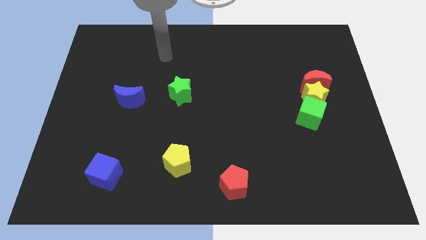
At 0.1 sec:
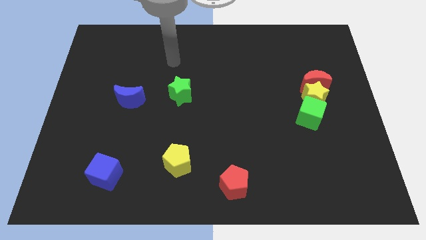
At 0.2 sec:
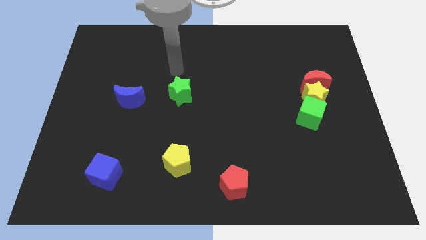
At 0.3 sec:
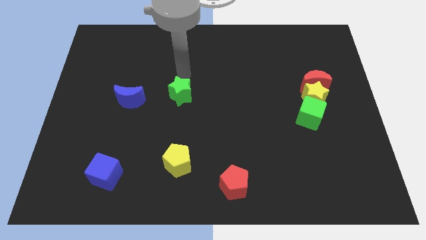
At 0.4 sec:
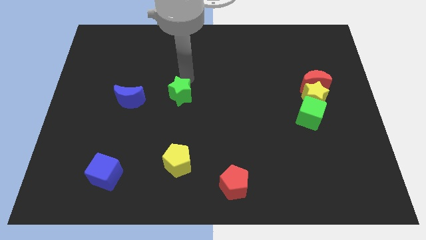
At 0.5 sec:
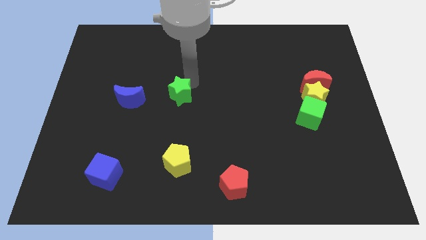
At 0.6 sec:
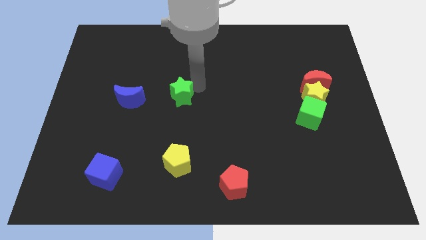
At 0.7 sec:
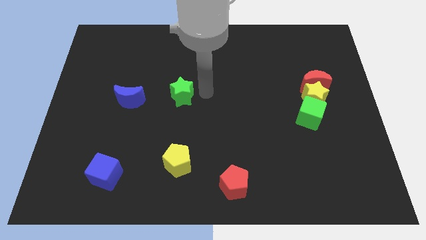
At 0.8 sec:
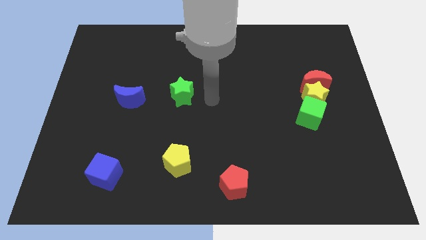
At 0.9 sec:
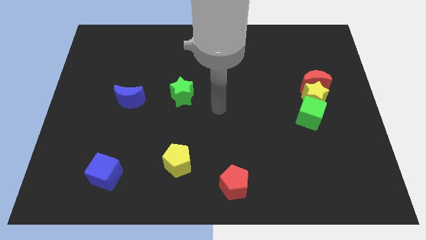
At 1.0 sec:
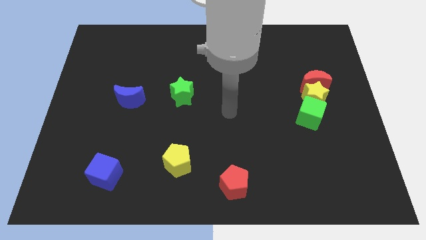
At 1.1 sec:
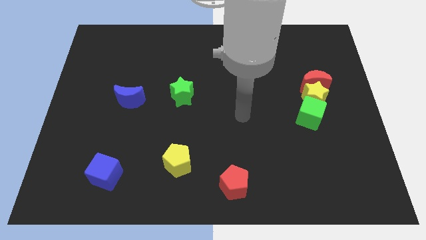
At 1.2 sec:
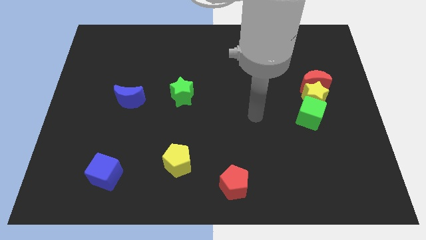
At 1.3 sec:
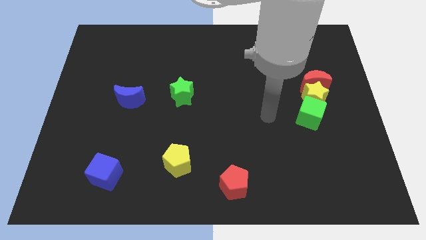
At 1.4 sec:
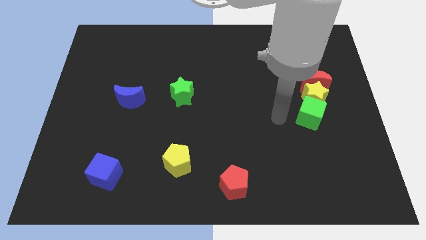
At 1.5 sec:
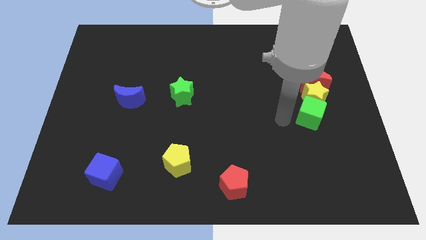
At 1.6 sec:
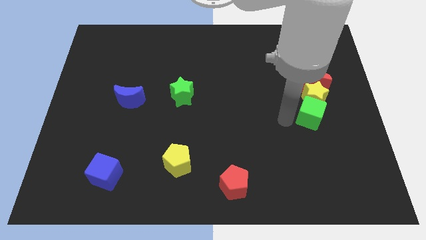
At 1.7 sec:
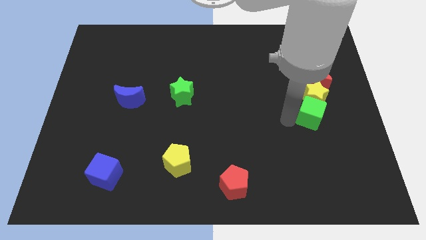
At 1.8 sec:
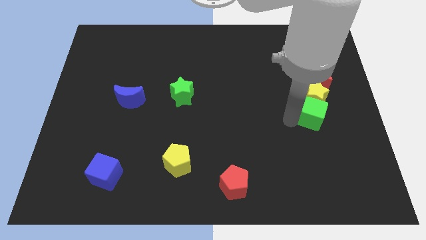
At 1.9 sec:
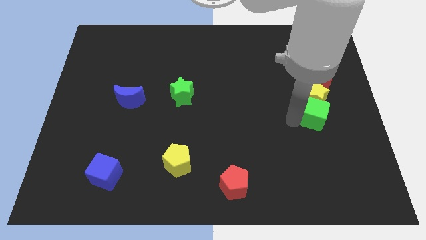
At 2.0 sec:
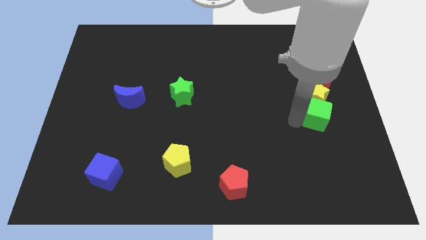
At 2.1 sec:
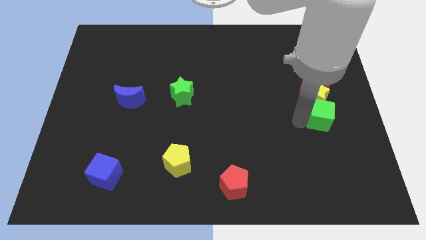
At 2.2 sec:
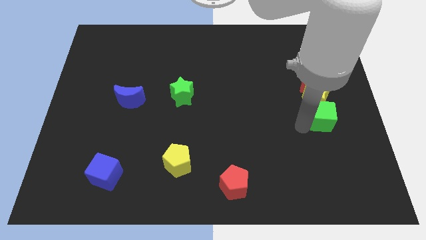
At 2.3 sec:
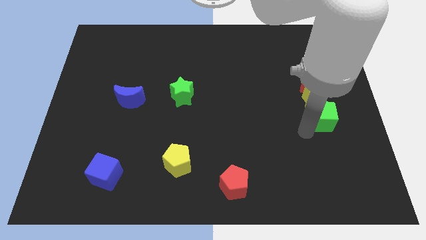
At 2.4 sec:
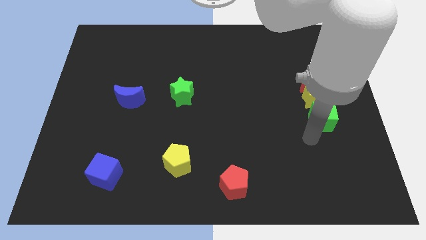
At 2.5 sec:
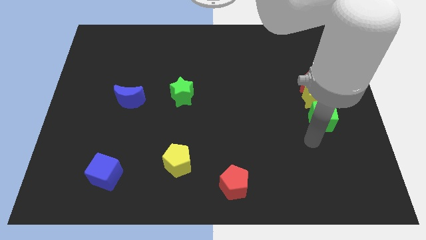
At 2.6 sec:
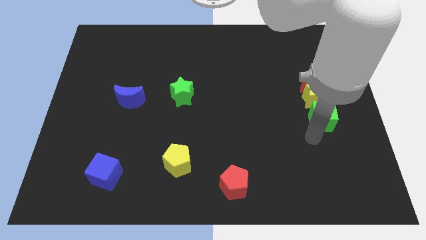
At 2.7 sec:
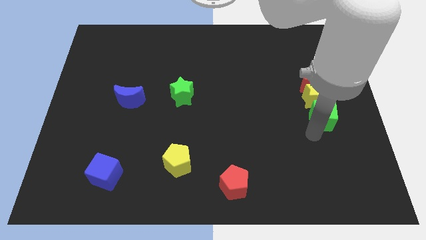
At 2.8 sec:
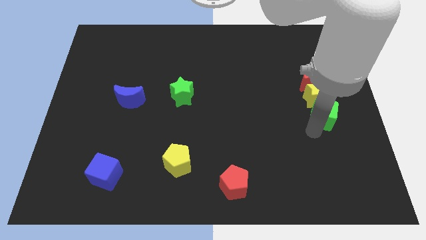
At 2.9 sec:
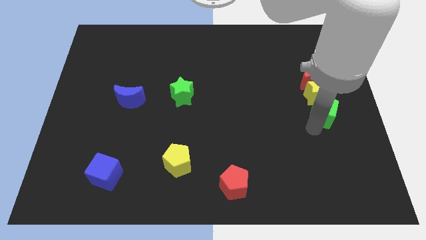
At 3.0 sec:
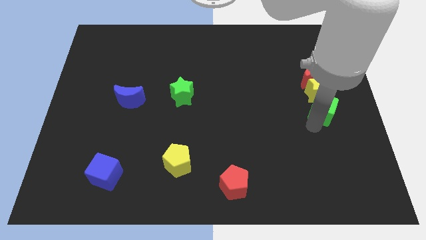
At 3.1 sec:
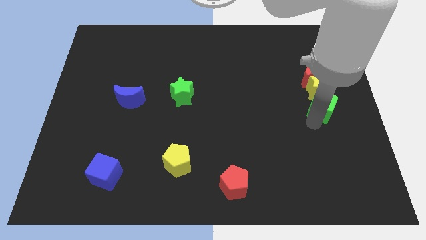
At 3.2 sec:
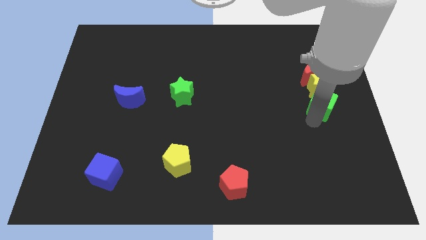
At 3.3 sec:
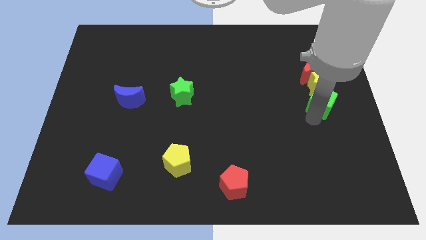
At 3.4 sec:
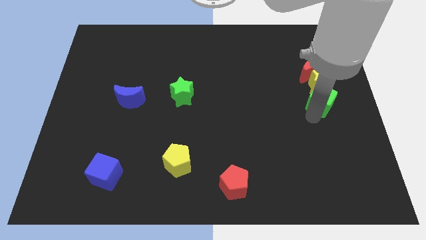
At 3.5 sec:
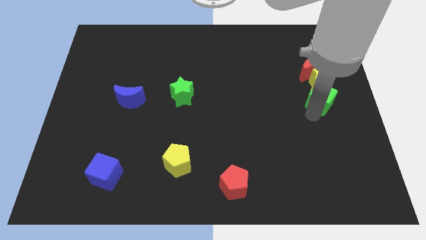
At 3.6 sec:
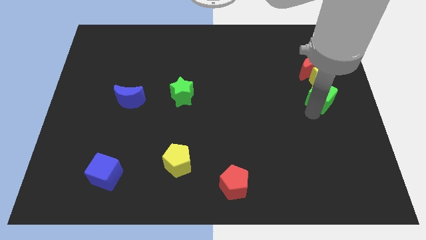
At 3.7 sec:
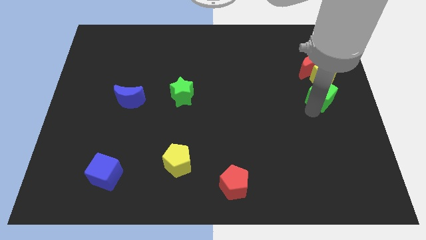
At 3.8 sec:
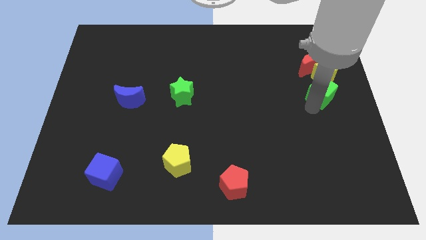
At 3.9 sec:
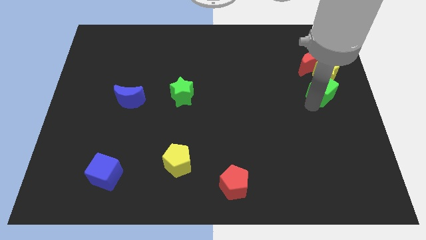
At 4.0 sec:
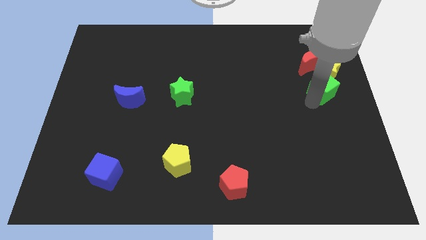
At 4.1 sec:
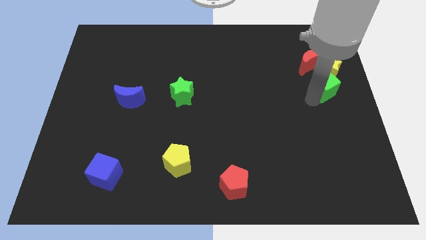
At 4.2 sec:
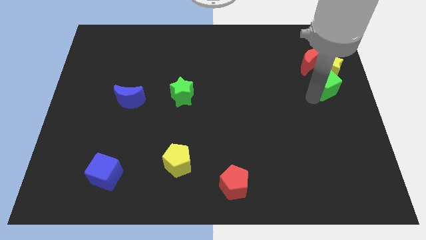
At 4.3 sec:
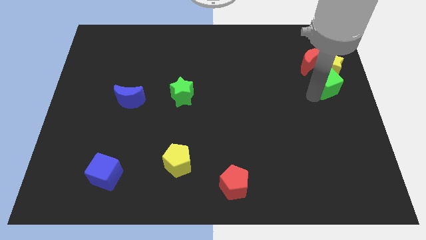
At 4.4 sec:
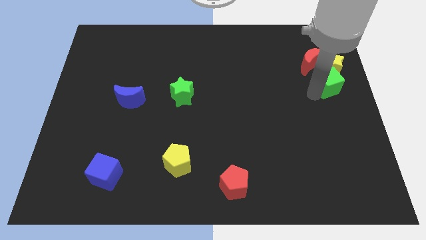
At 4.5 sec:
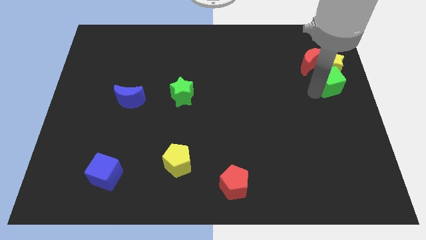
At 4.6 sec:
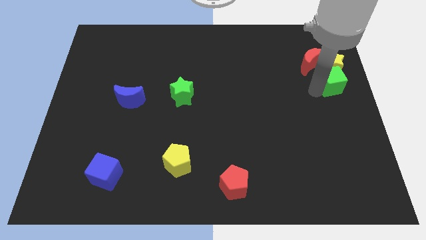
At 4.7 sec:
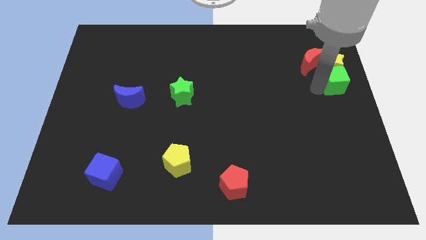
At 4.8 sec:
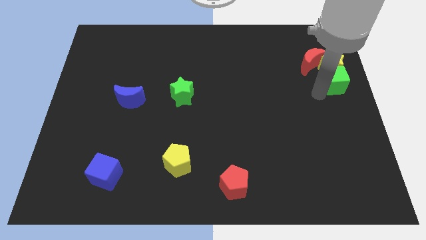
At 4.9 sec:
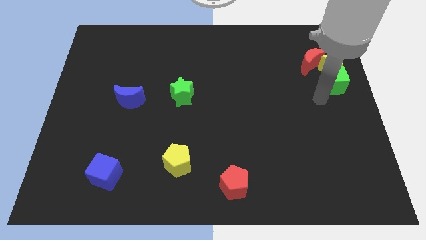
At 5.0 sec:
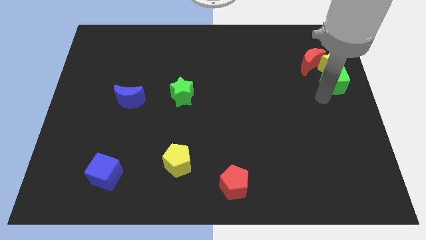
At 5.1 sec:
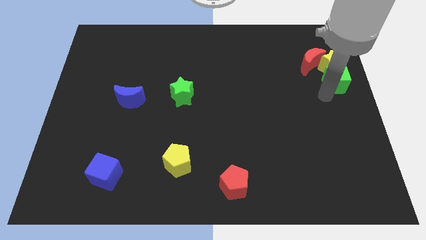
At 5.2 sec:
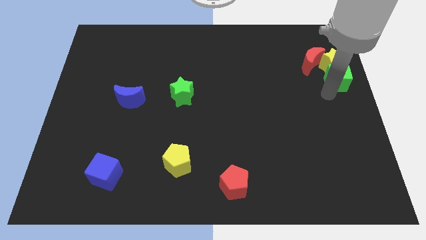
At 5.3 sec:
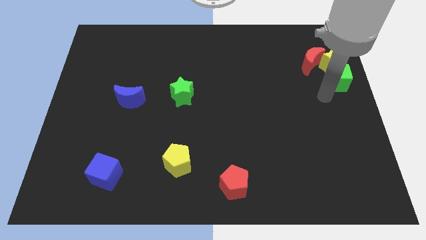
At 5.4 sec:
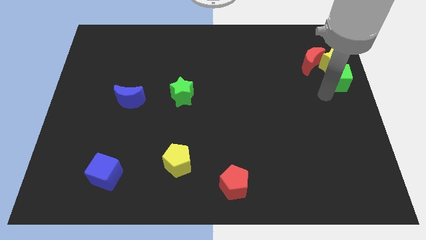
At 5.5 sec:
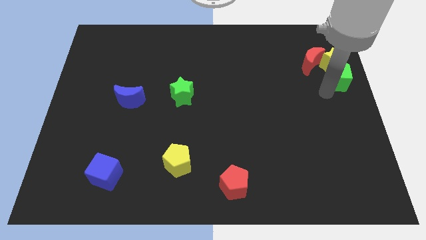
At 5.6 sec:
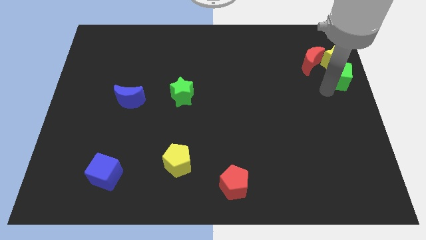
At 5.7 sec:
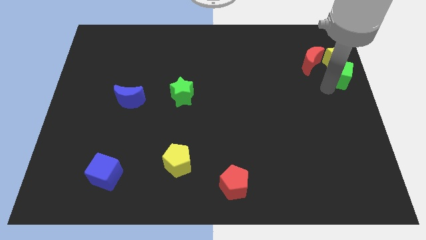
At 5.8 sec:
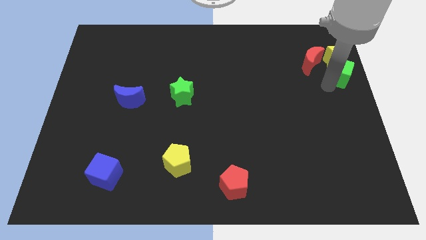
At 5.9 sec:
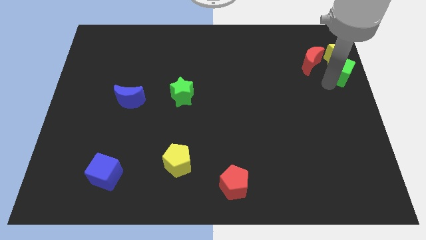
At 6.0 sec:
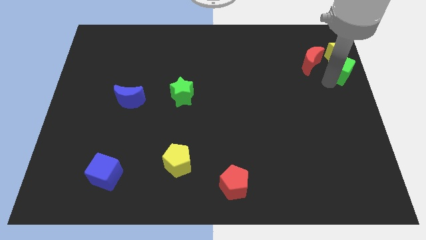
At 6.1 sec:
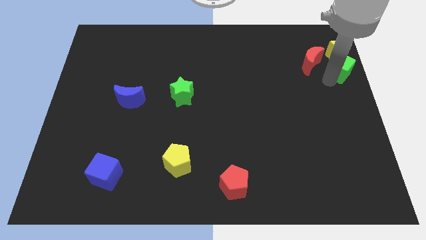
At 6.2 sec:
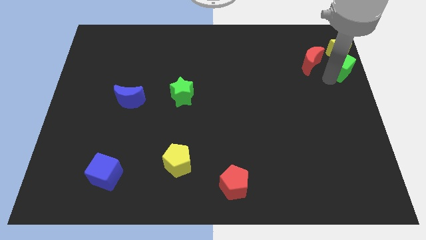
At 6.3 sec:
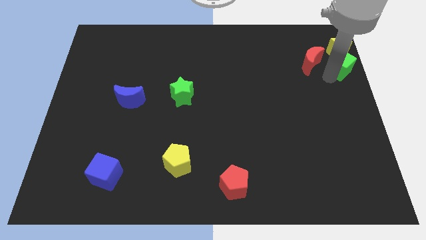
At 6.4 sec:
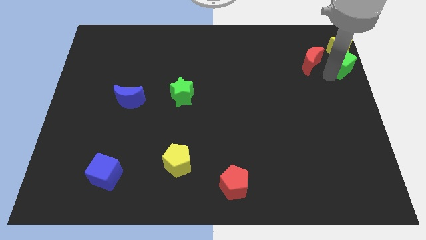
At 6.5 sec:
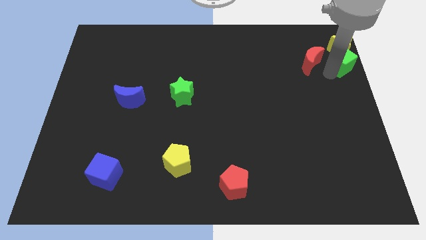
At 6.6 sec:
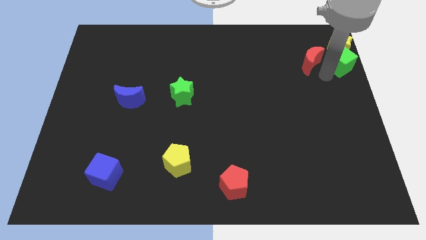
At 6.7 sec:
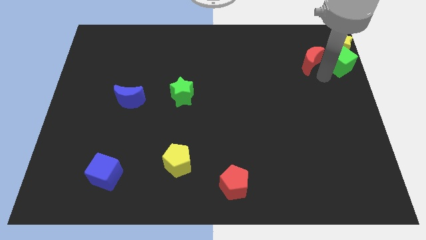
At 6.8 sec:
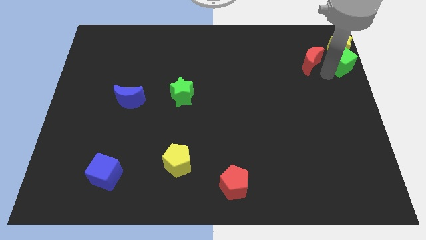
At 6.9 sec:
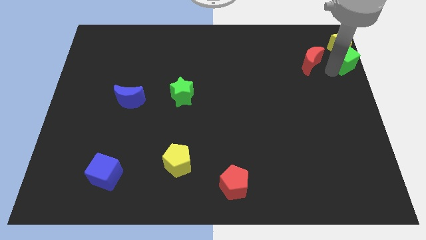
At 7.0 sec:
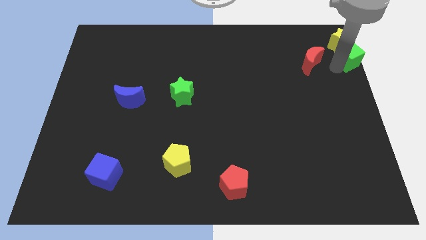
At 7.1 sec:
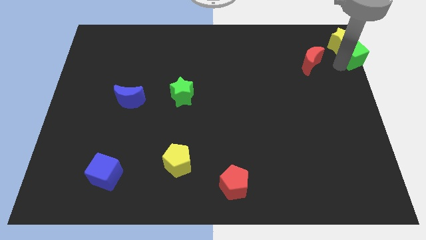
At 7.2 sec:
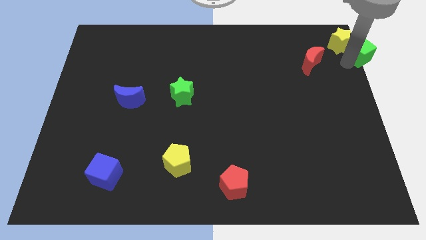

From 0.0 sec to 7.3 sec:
put the green cube to the upper right corner
